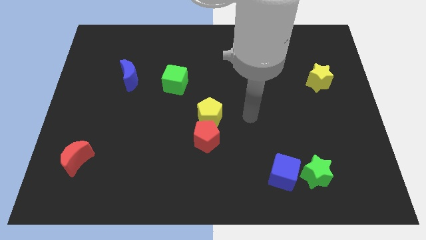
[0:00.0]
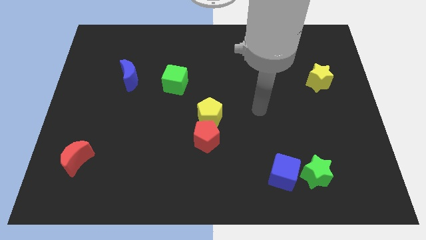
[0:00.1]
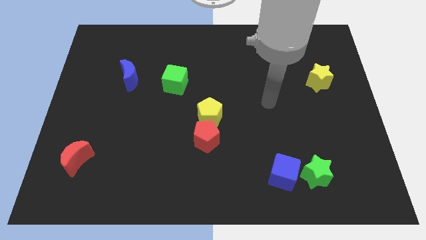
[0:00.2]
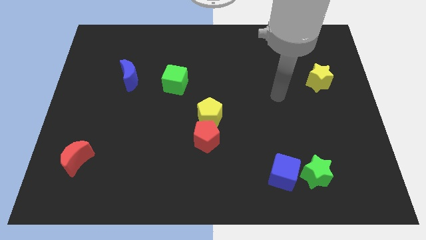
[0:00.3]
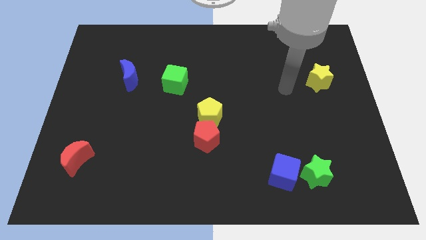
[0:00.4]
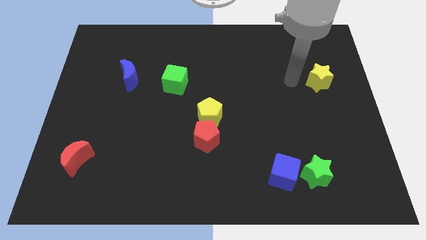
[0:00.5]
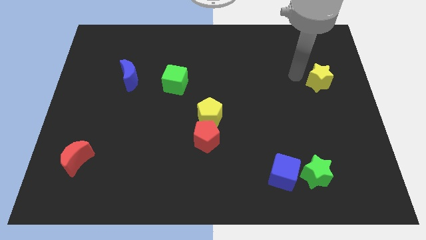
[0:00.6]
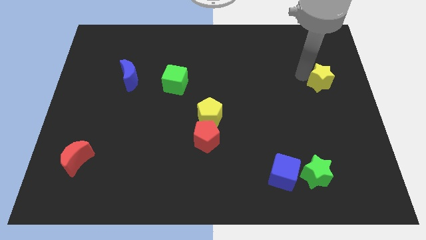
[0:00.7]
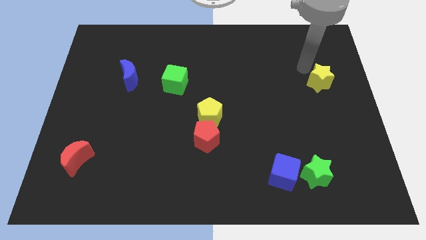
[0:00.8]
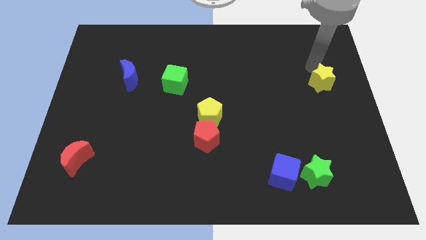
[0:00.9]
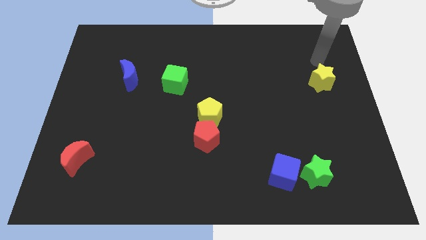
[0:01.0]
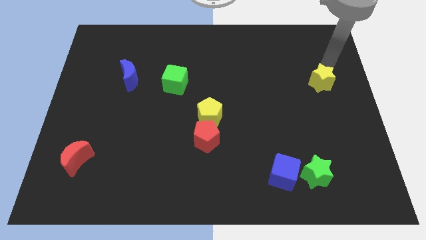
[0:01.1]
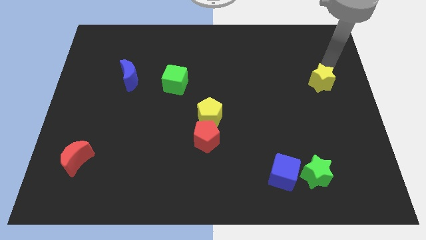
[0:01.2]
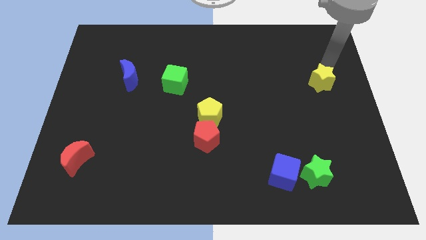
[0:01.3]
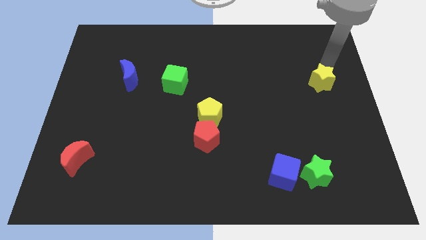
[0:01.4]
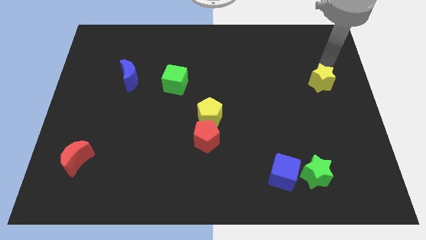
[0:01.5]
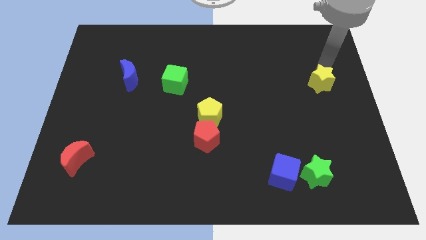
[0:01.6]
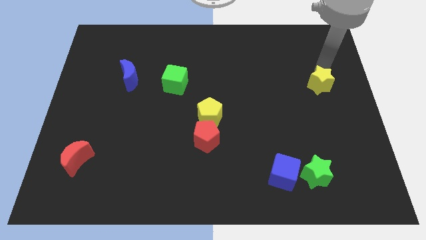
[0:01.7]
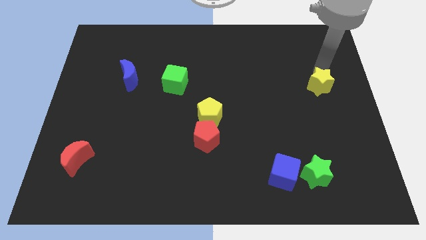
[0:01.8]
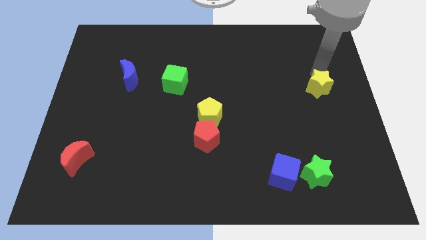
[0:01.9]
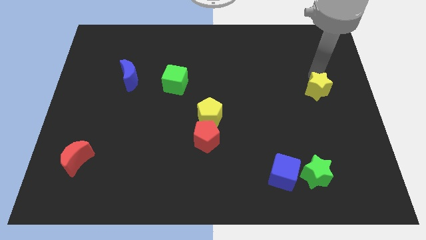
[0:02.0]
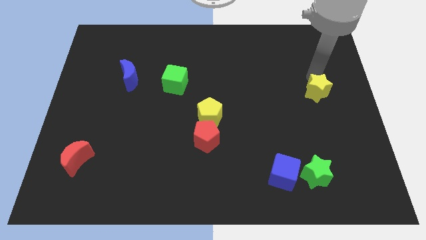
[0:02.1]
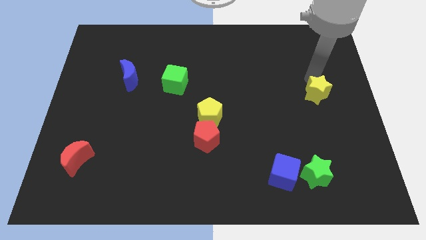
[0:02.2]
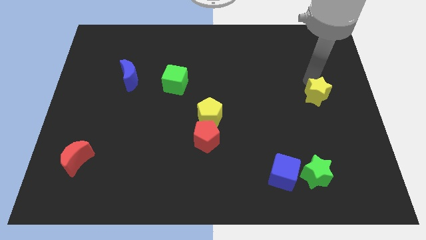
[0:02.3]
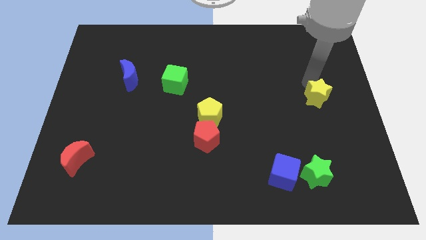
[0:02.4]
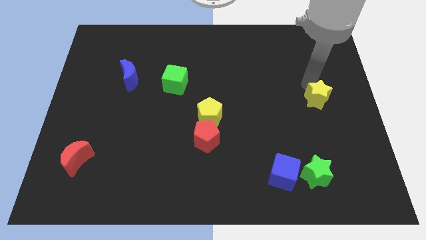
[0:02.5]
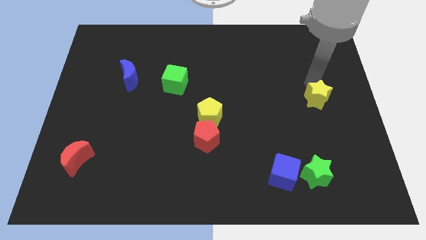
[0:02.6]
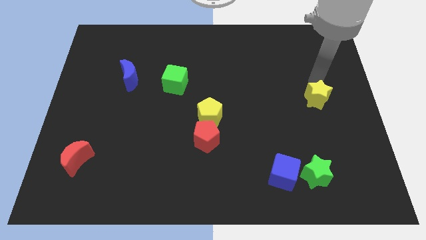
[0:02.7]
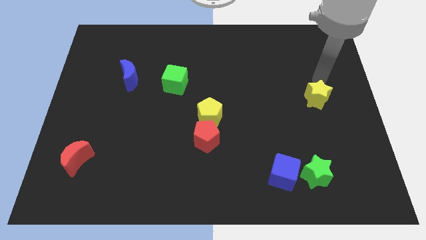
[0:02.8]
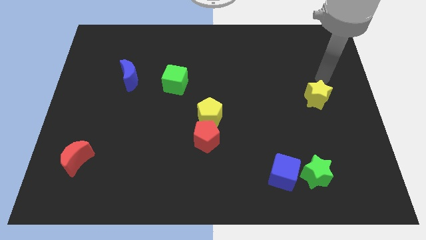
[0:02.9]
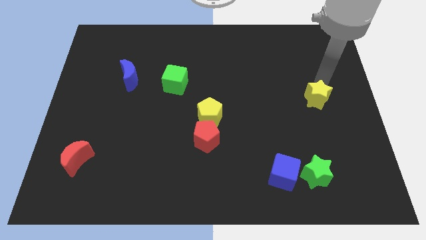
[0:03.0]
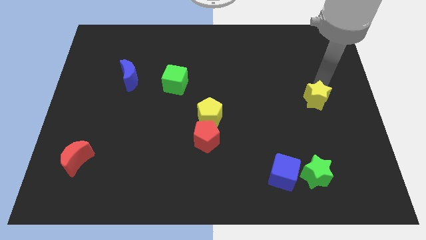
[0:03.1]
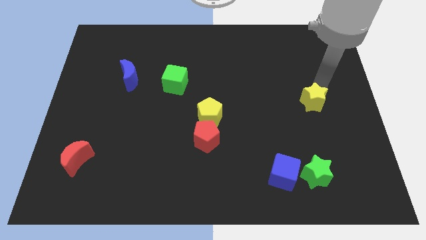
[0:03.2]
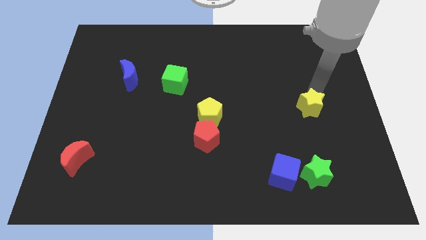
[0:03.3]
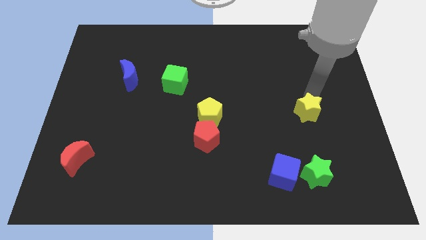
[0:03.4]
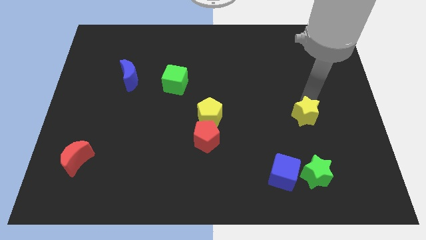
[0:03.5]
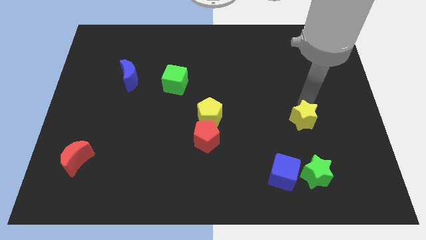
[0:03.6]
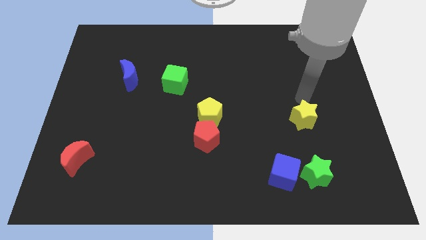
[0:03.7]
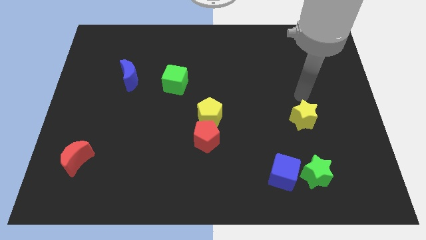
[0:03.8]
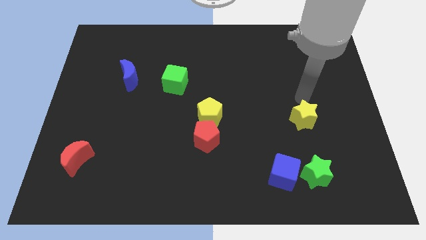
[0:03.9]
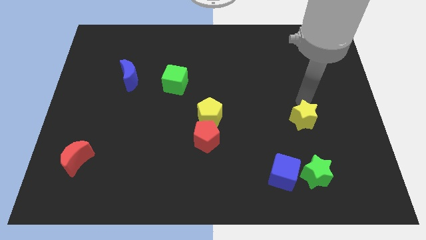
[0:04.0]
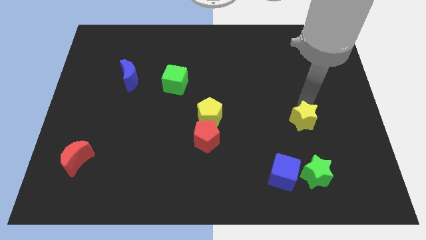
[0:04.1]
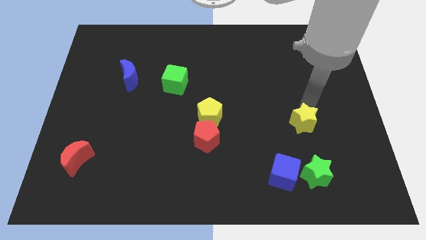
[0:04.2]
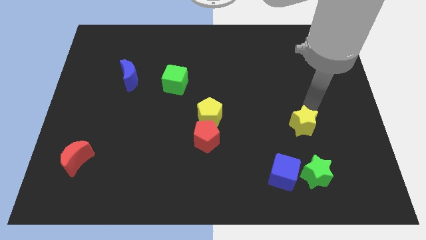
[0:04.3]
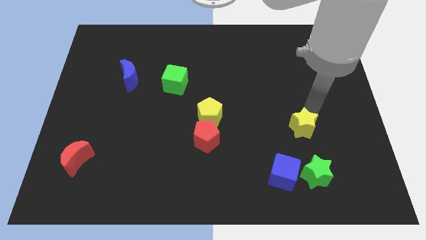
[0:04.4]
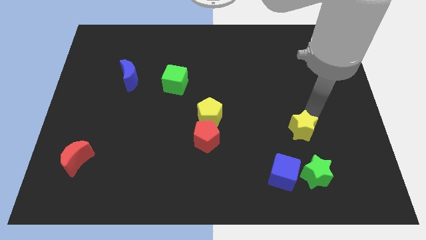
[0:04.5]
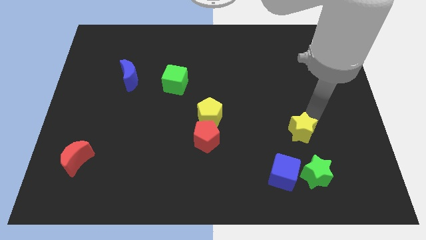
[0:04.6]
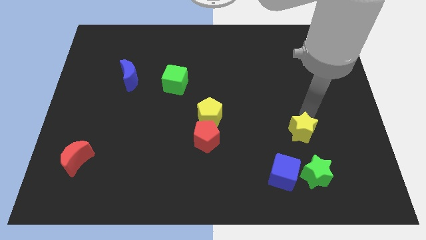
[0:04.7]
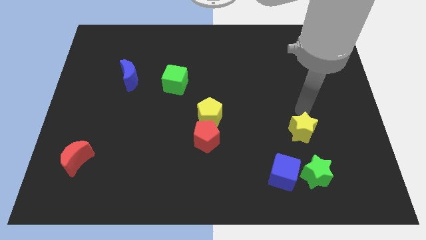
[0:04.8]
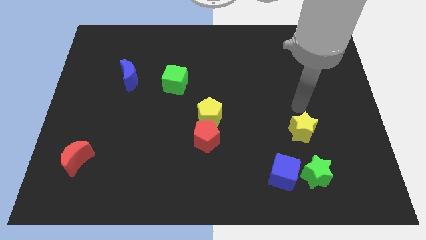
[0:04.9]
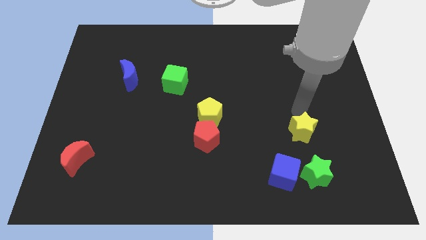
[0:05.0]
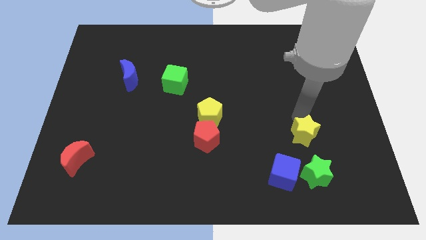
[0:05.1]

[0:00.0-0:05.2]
move the yellow star diagonally up and to the right of the blue cube

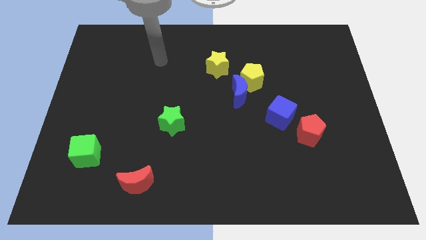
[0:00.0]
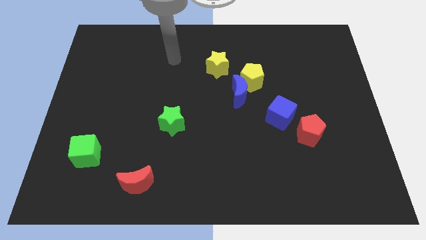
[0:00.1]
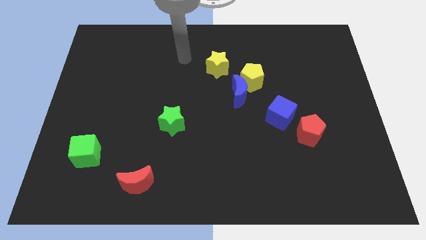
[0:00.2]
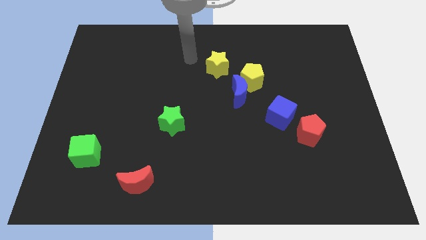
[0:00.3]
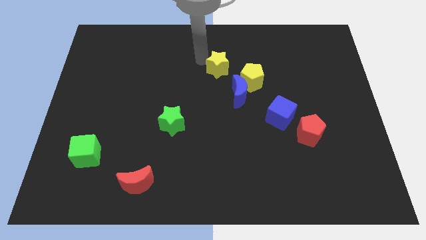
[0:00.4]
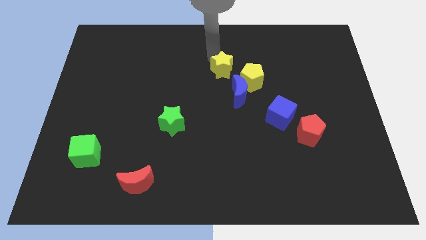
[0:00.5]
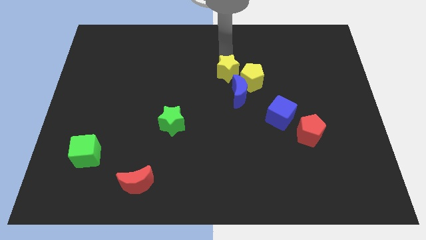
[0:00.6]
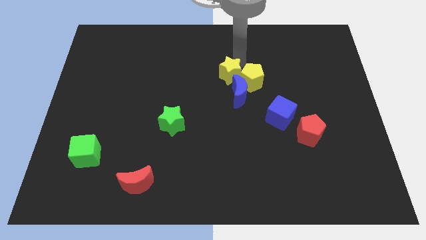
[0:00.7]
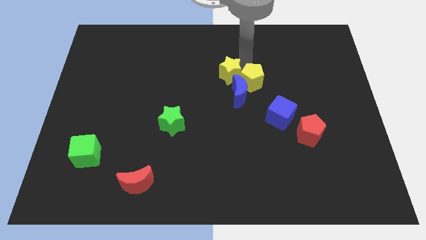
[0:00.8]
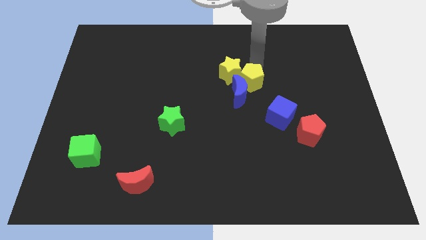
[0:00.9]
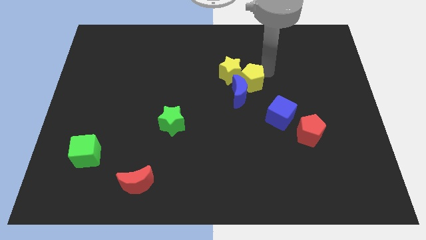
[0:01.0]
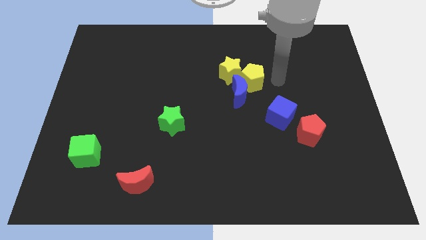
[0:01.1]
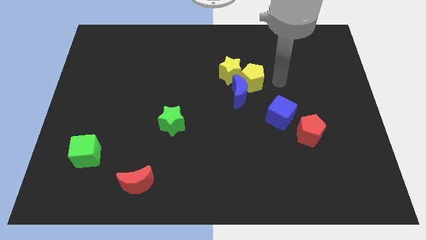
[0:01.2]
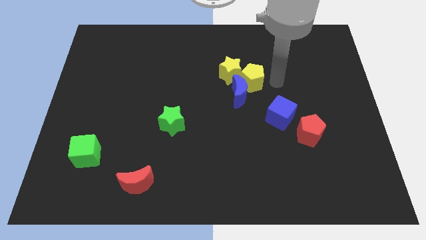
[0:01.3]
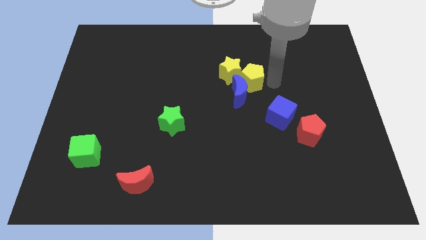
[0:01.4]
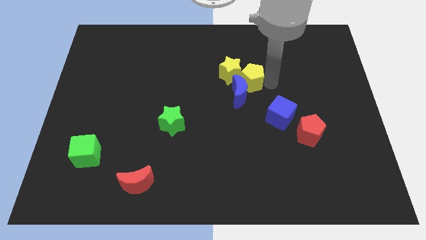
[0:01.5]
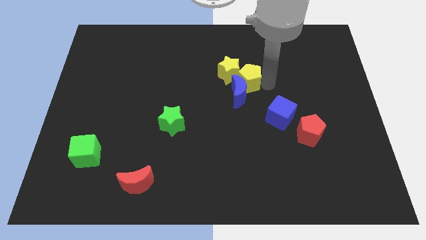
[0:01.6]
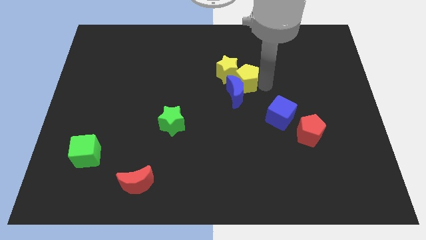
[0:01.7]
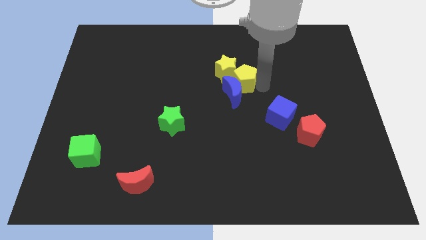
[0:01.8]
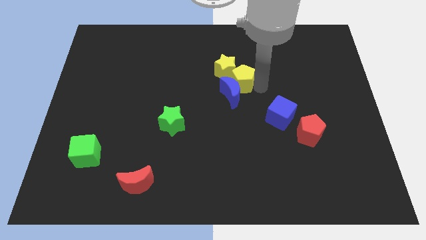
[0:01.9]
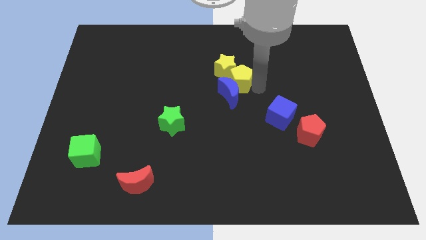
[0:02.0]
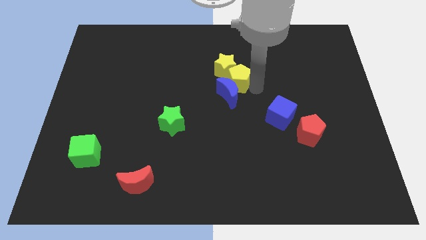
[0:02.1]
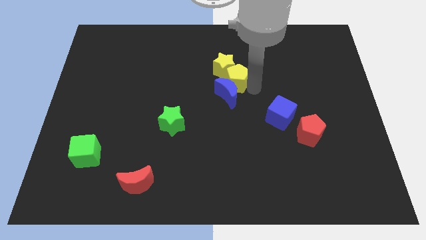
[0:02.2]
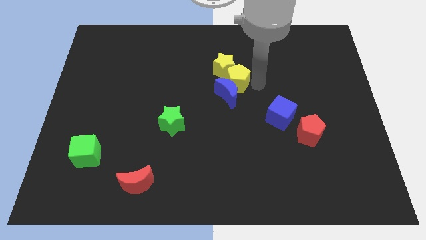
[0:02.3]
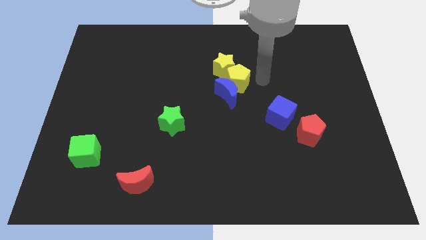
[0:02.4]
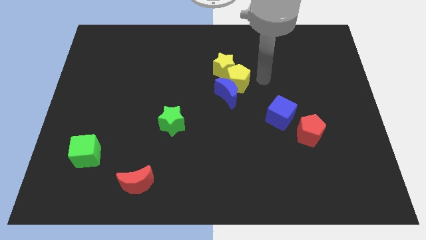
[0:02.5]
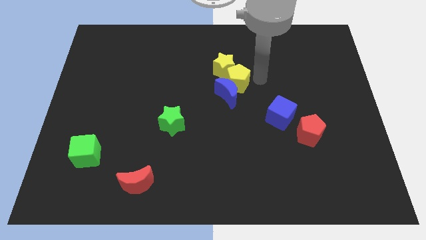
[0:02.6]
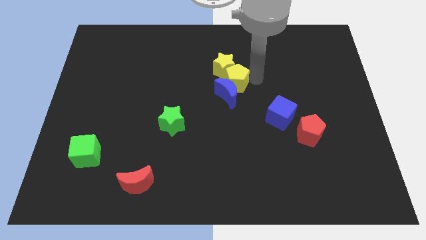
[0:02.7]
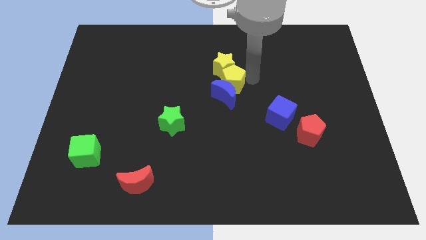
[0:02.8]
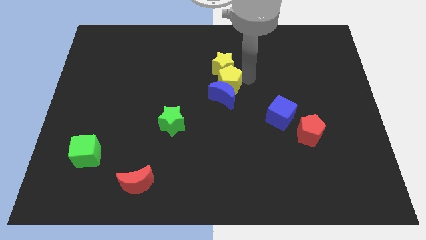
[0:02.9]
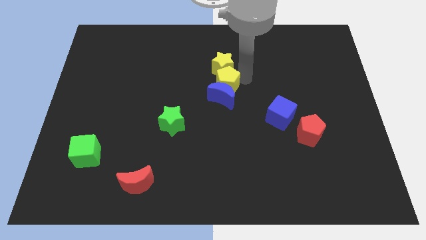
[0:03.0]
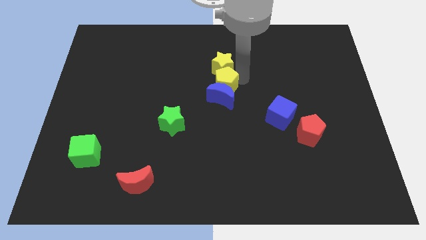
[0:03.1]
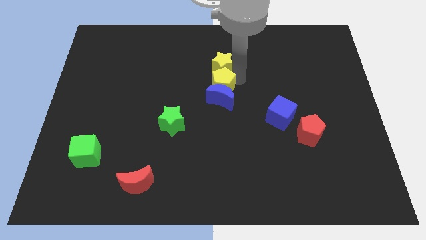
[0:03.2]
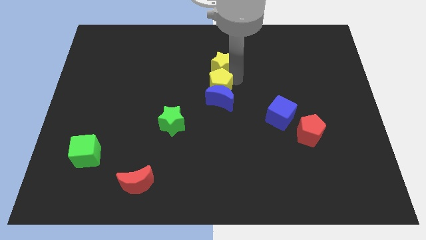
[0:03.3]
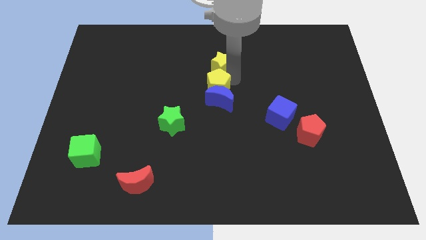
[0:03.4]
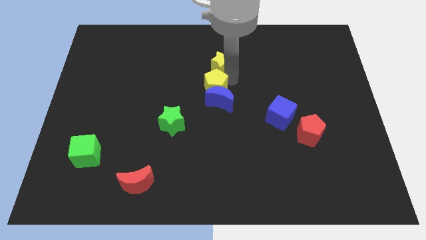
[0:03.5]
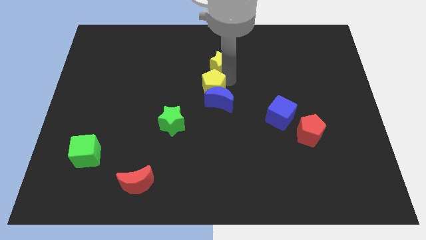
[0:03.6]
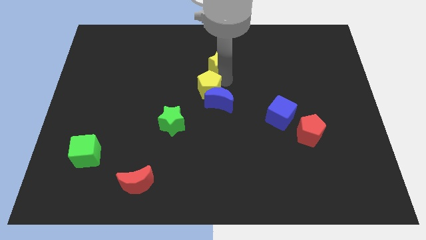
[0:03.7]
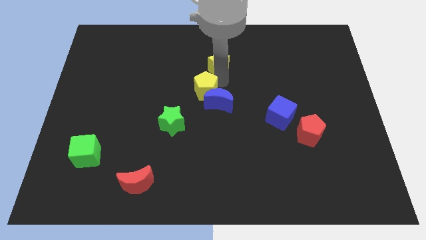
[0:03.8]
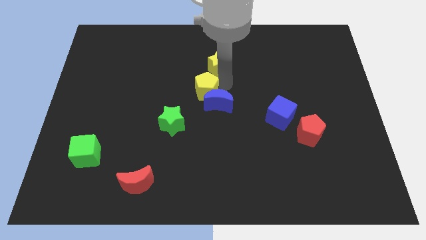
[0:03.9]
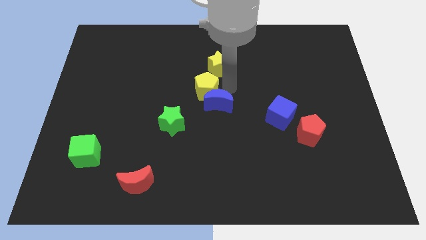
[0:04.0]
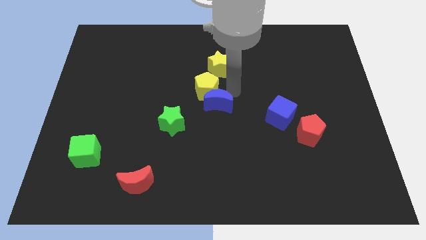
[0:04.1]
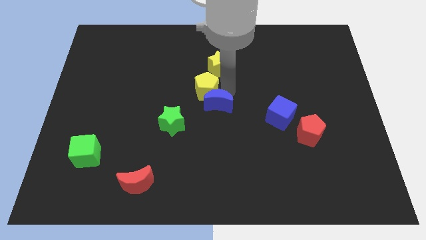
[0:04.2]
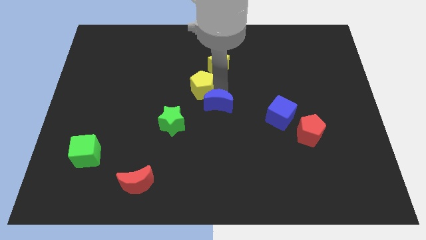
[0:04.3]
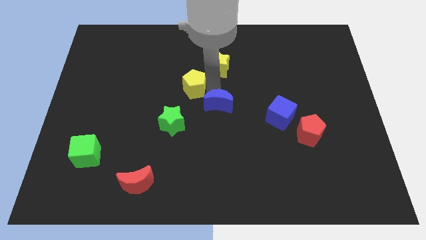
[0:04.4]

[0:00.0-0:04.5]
put the yellow pentagon to the top side of the green star
